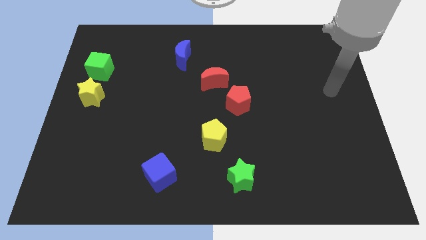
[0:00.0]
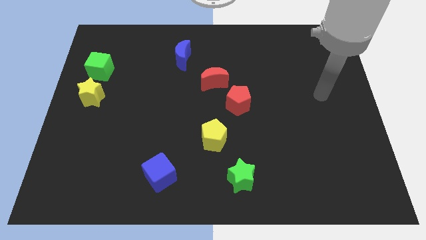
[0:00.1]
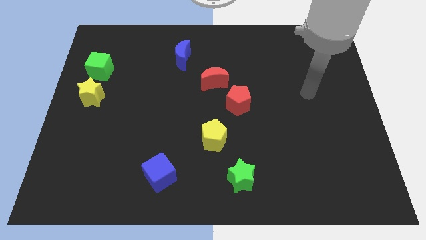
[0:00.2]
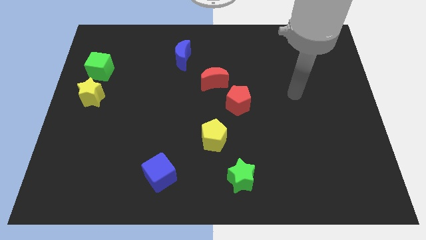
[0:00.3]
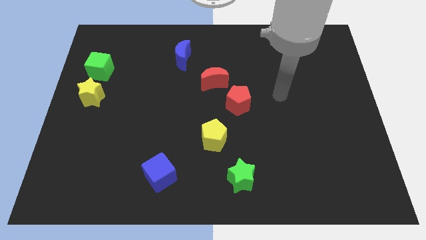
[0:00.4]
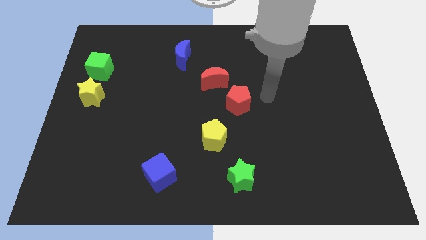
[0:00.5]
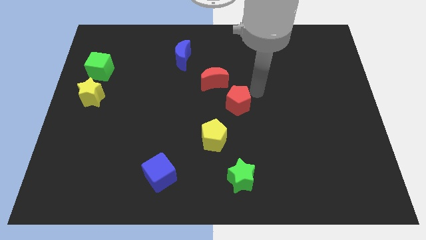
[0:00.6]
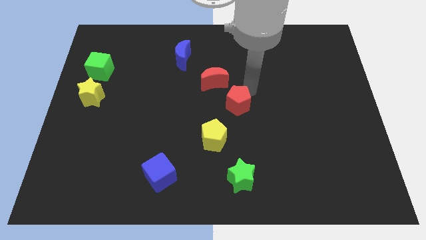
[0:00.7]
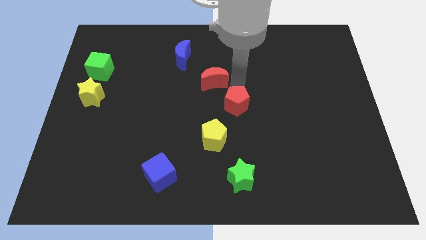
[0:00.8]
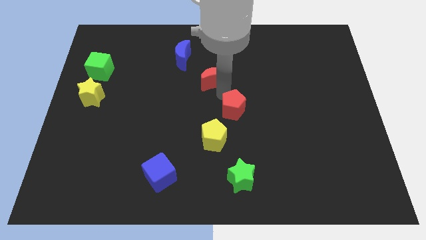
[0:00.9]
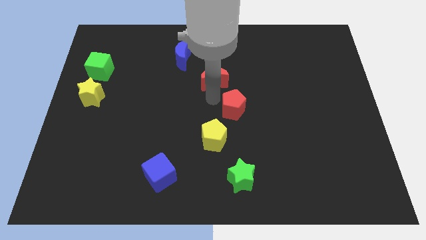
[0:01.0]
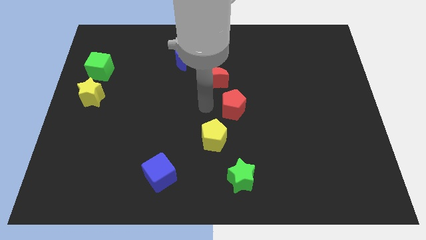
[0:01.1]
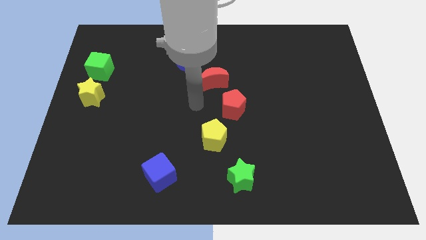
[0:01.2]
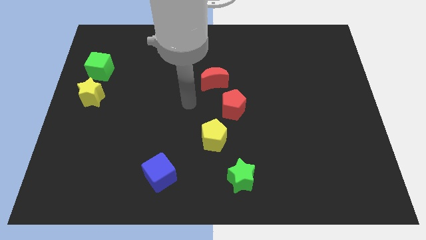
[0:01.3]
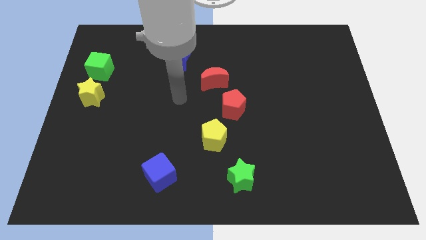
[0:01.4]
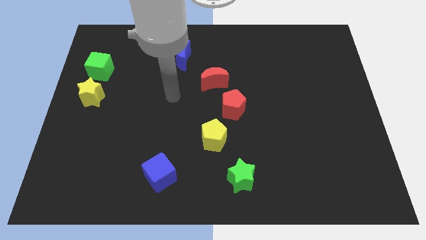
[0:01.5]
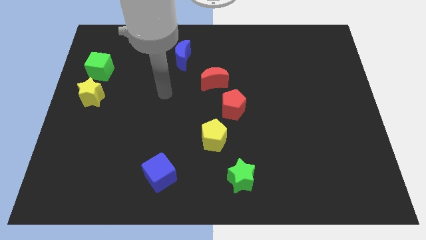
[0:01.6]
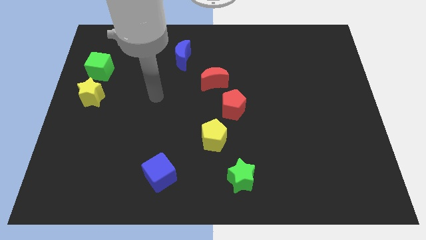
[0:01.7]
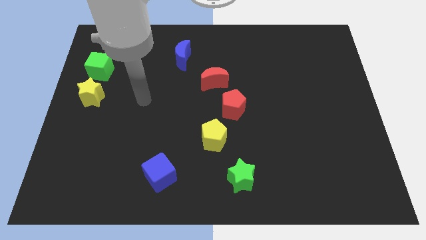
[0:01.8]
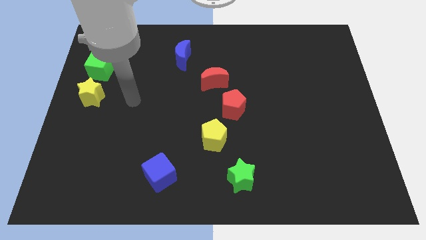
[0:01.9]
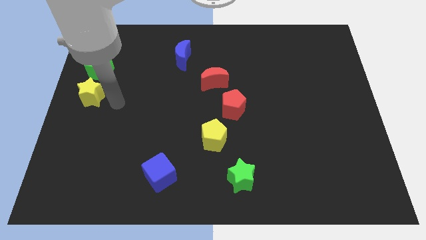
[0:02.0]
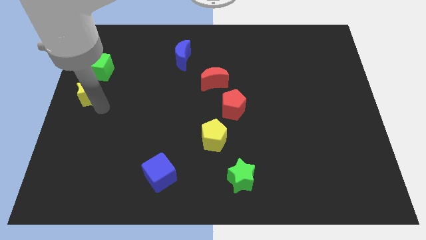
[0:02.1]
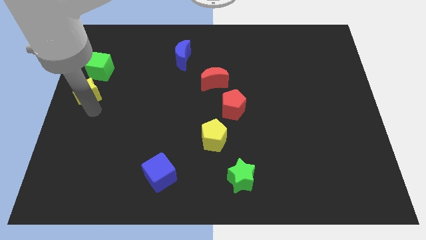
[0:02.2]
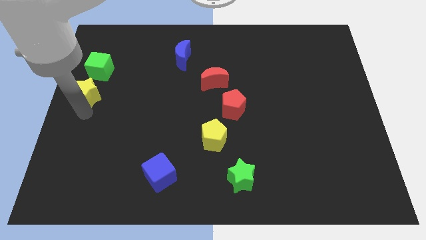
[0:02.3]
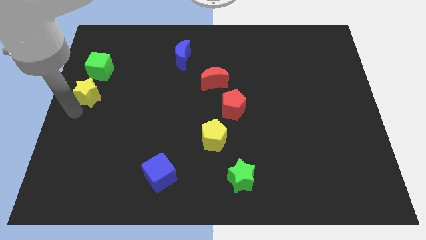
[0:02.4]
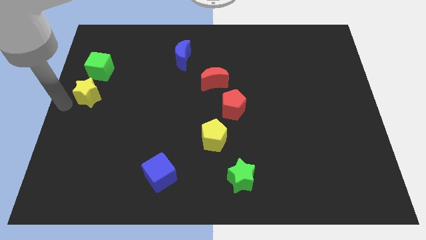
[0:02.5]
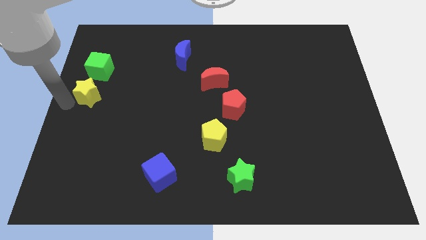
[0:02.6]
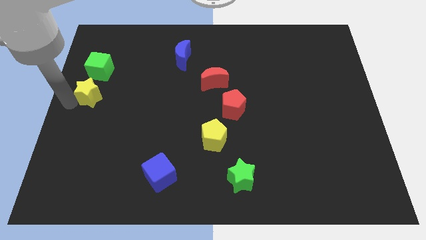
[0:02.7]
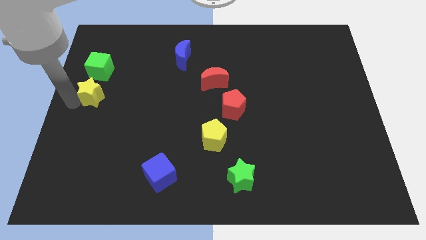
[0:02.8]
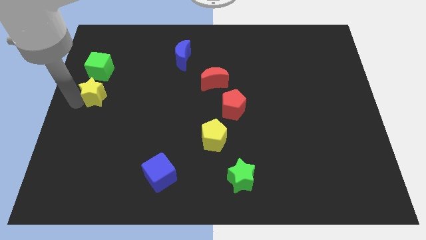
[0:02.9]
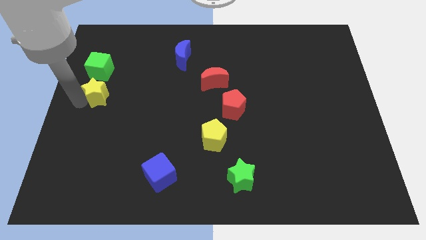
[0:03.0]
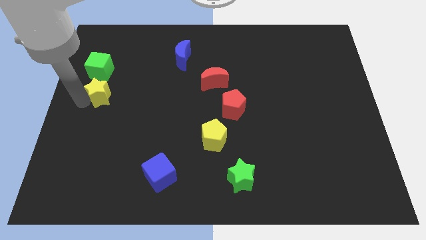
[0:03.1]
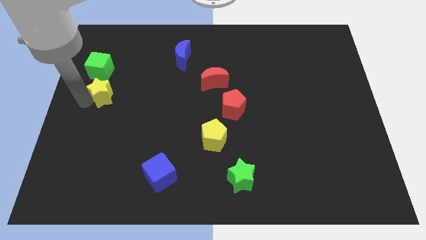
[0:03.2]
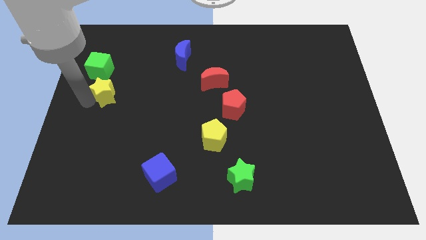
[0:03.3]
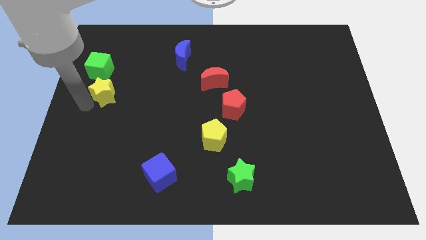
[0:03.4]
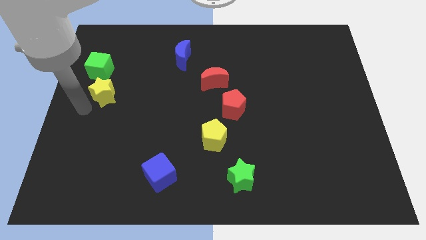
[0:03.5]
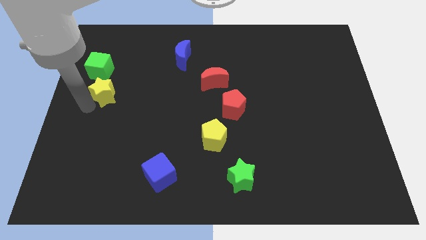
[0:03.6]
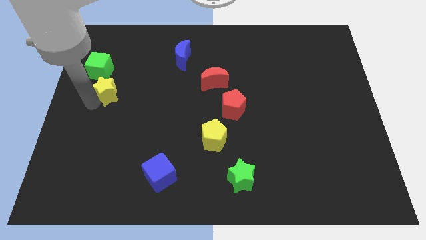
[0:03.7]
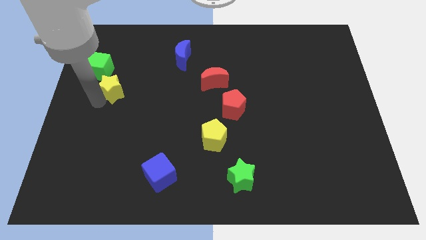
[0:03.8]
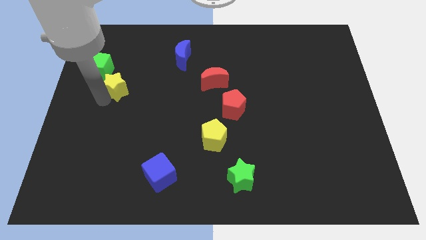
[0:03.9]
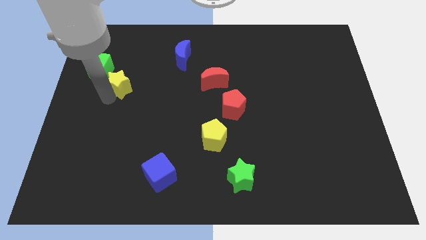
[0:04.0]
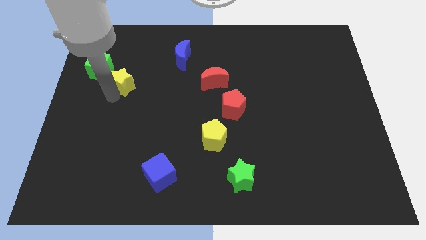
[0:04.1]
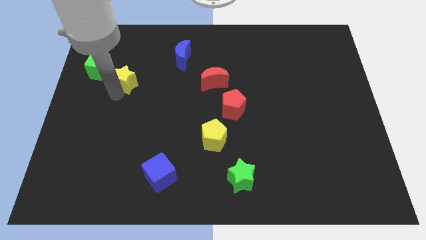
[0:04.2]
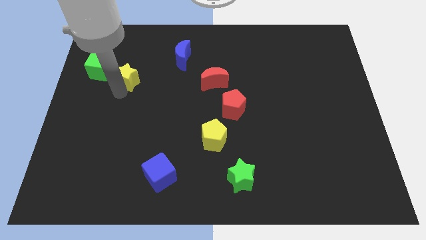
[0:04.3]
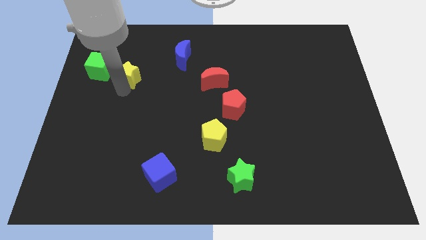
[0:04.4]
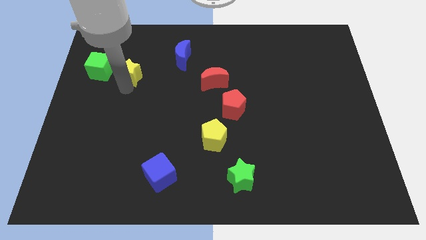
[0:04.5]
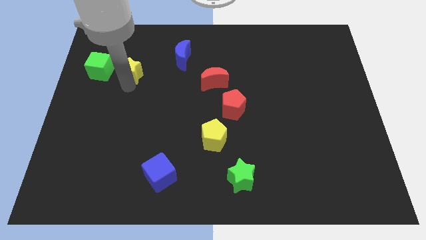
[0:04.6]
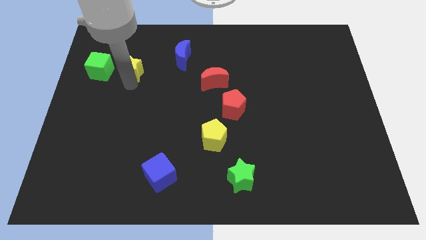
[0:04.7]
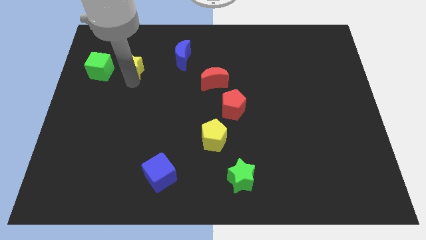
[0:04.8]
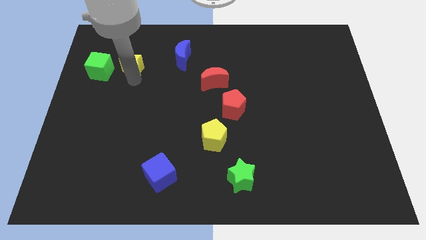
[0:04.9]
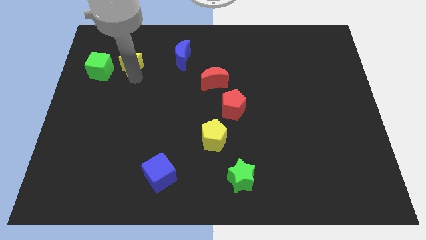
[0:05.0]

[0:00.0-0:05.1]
slide the yellow star to the top right side of the green cube

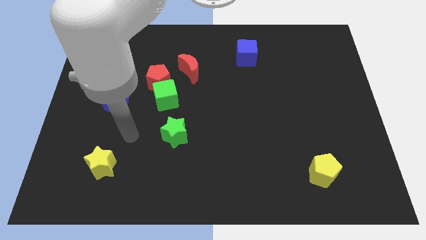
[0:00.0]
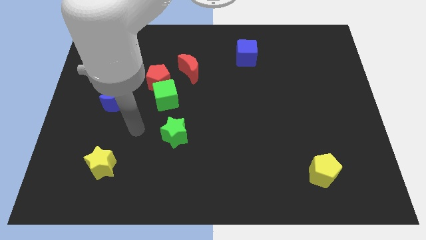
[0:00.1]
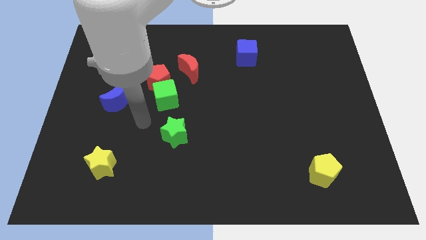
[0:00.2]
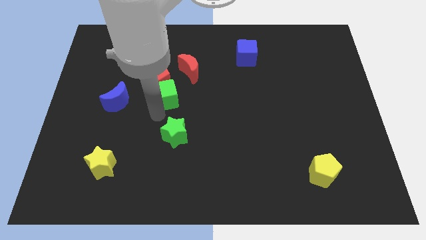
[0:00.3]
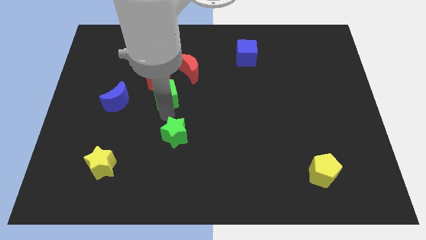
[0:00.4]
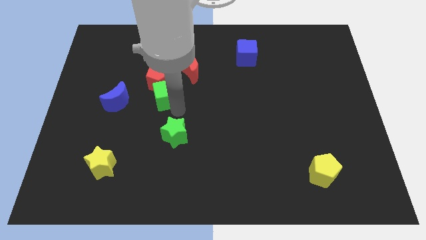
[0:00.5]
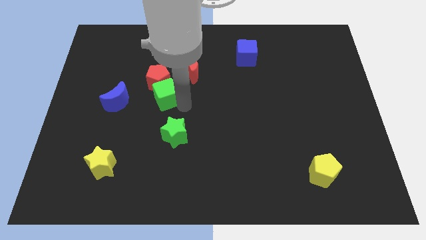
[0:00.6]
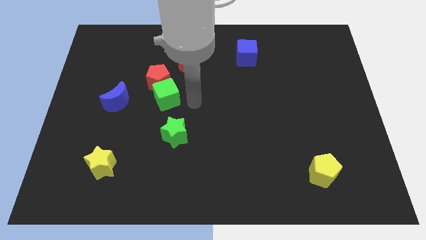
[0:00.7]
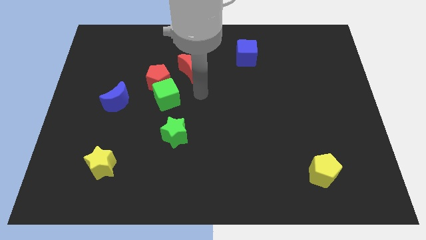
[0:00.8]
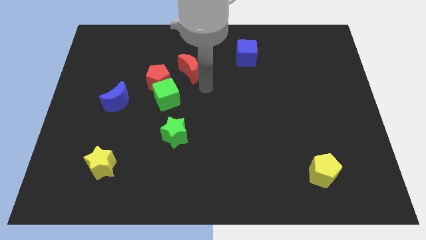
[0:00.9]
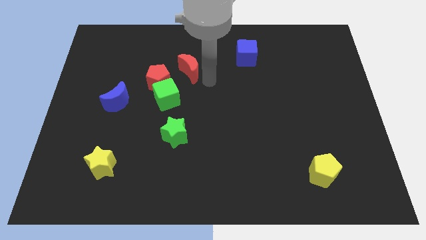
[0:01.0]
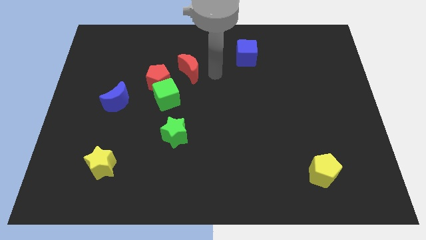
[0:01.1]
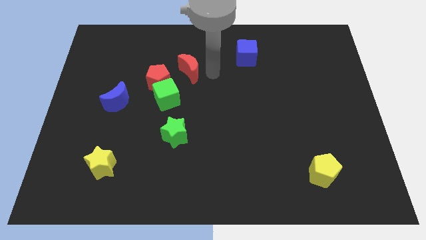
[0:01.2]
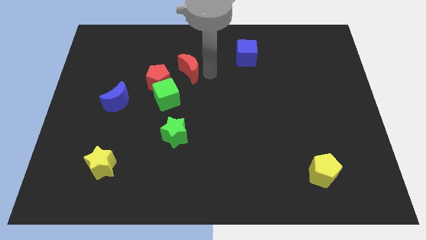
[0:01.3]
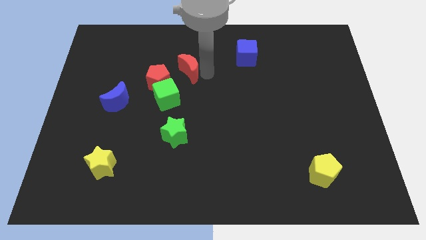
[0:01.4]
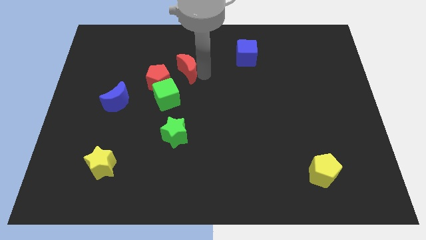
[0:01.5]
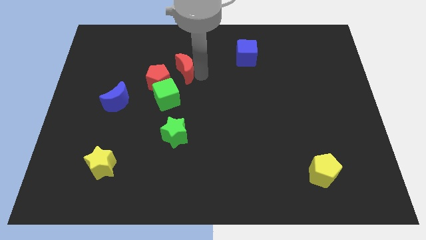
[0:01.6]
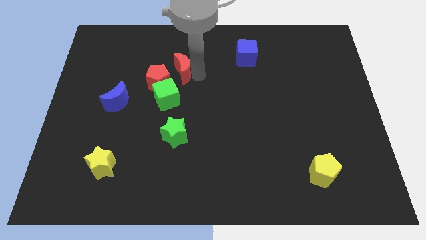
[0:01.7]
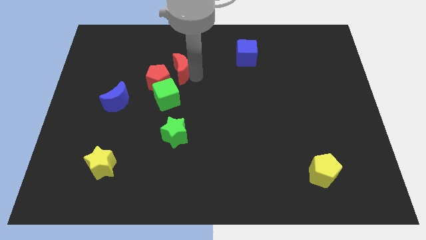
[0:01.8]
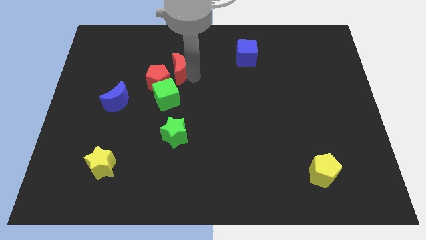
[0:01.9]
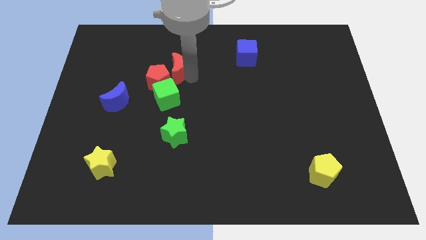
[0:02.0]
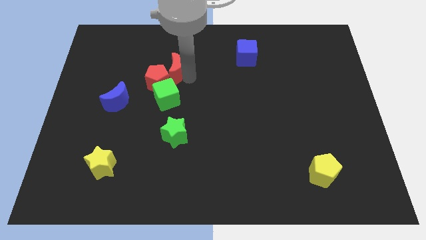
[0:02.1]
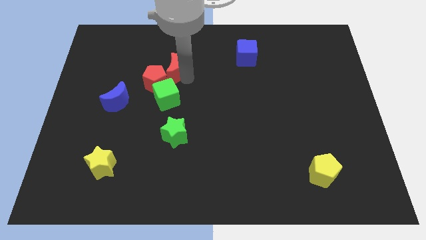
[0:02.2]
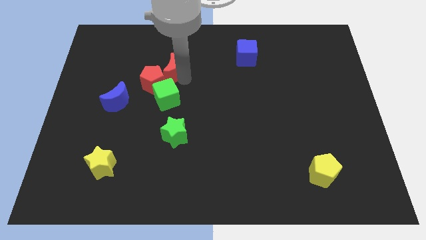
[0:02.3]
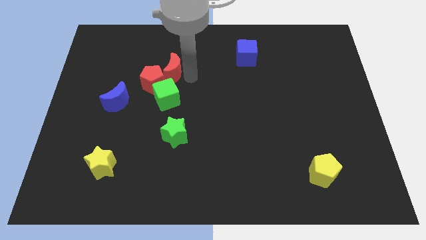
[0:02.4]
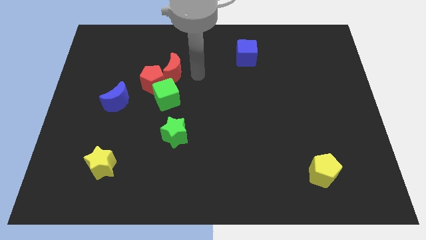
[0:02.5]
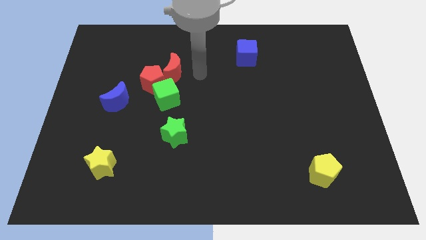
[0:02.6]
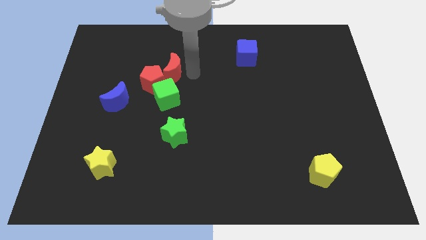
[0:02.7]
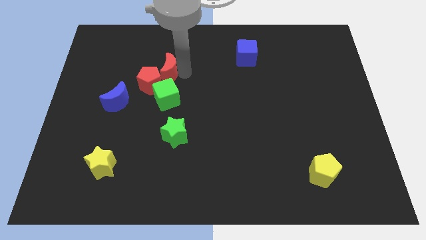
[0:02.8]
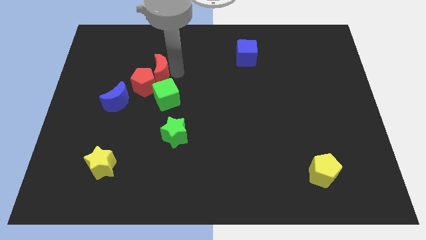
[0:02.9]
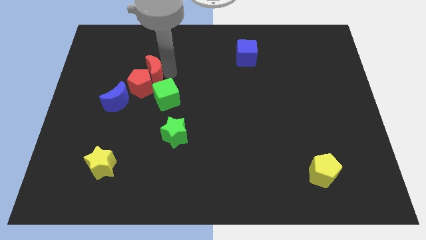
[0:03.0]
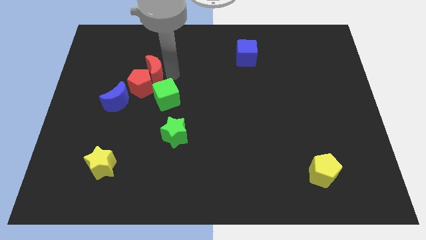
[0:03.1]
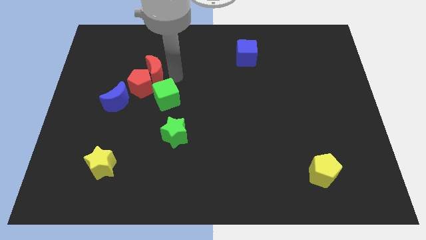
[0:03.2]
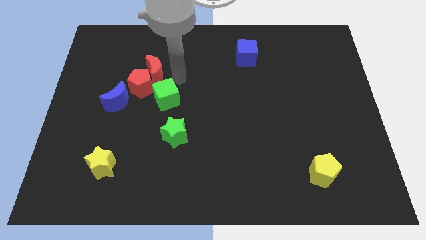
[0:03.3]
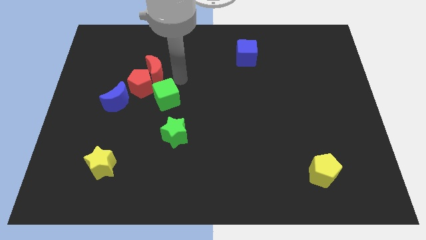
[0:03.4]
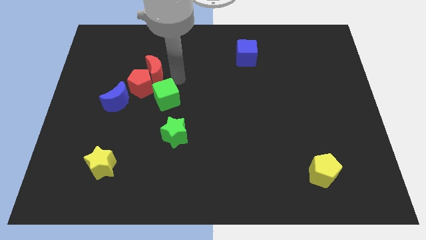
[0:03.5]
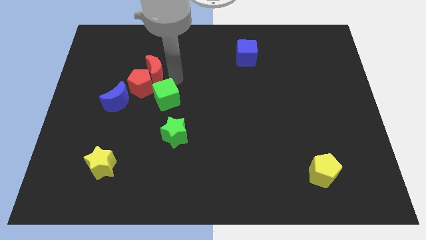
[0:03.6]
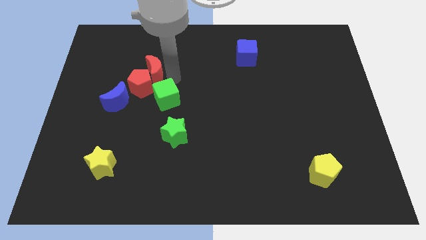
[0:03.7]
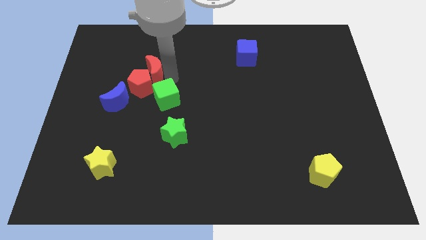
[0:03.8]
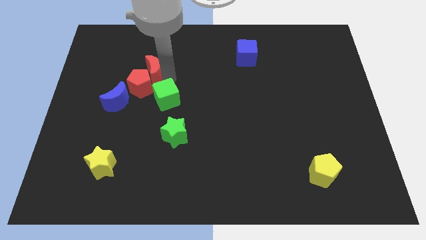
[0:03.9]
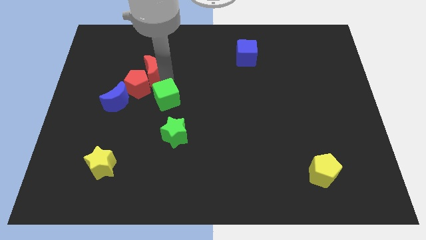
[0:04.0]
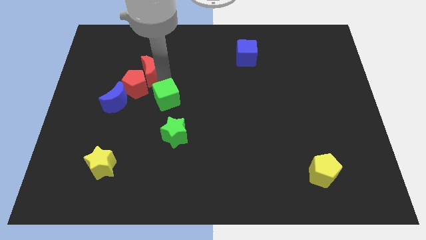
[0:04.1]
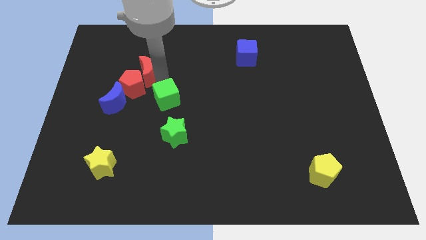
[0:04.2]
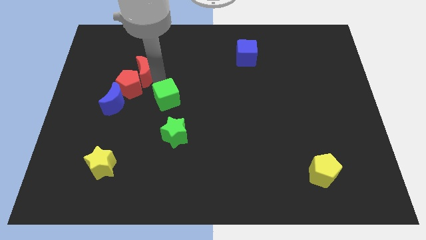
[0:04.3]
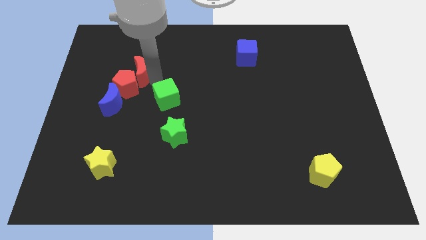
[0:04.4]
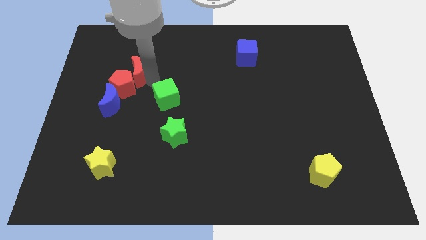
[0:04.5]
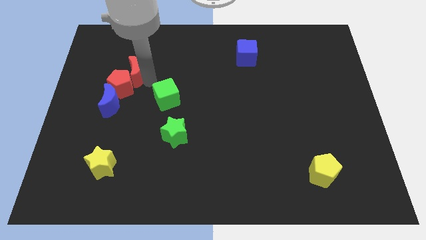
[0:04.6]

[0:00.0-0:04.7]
put the red moon to the top of the blue moon
